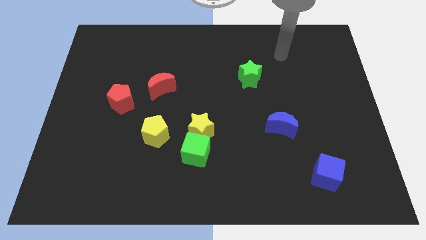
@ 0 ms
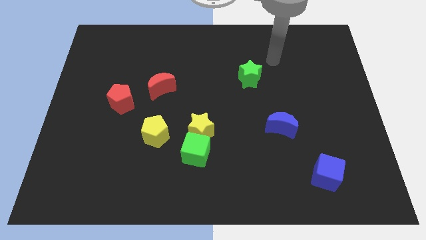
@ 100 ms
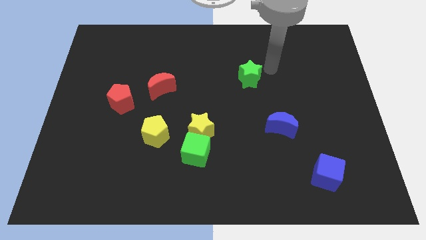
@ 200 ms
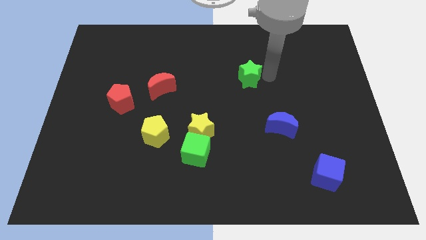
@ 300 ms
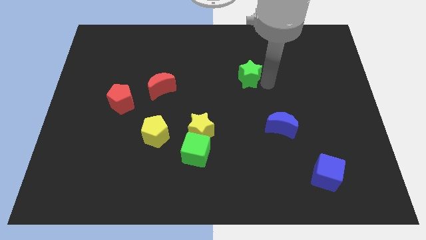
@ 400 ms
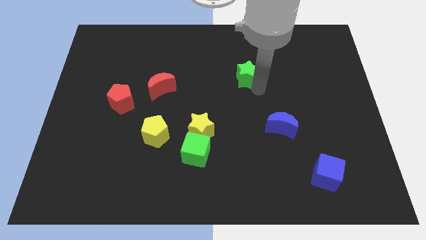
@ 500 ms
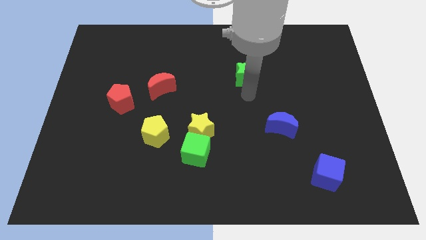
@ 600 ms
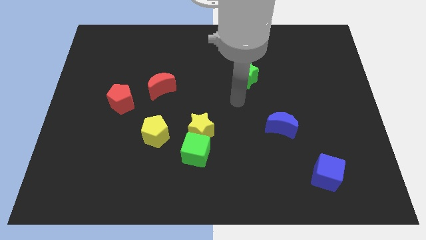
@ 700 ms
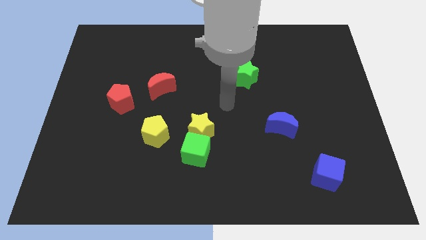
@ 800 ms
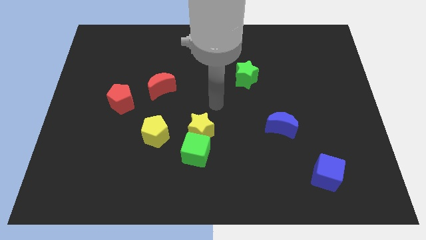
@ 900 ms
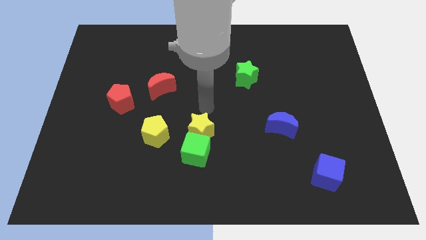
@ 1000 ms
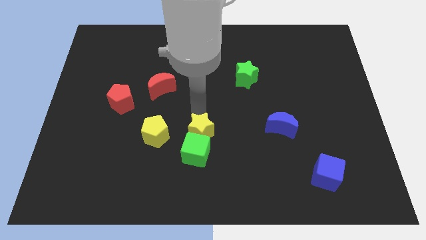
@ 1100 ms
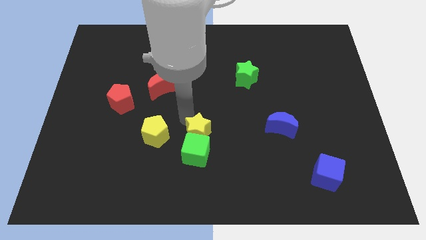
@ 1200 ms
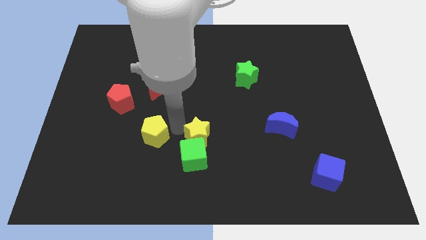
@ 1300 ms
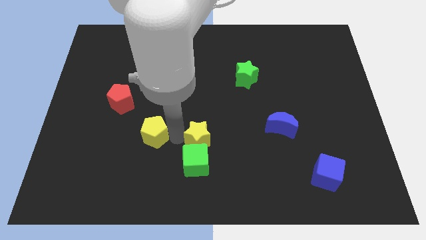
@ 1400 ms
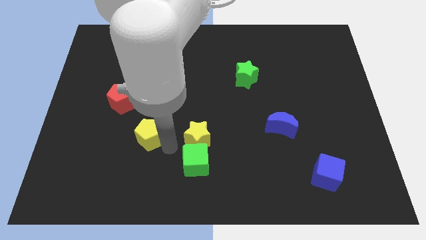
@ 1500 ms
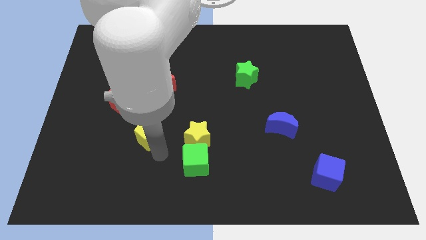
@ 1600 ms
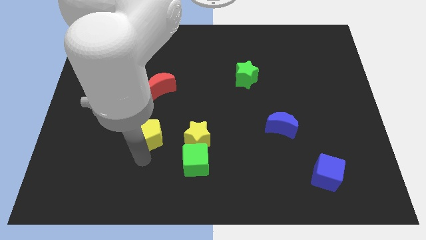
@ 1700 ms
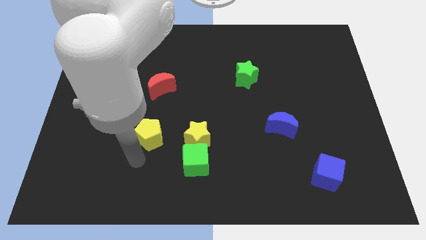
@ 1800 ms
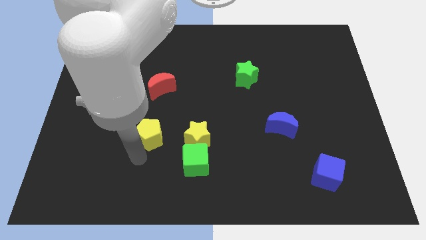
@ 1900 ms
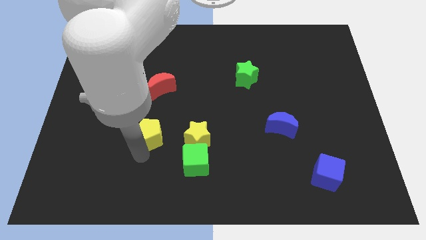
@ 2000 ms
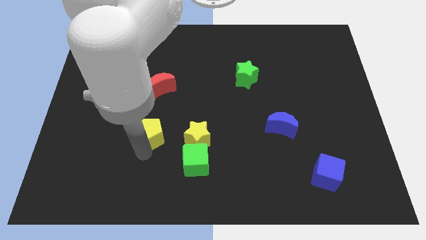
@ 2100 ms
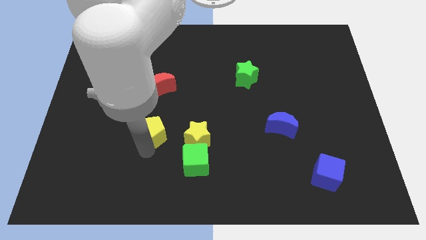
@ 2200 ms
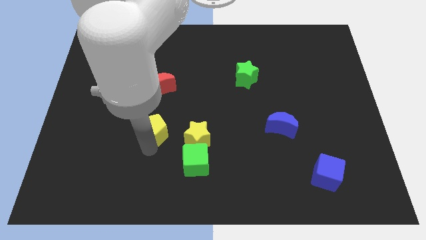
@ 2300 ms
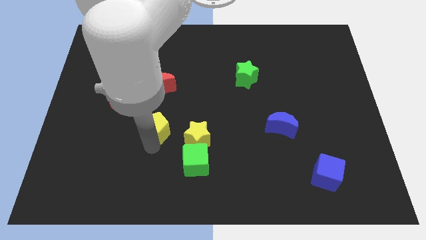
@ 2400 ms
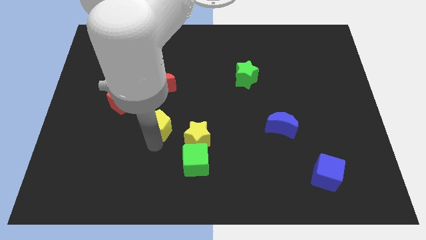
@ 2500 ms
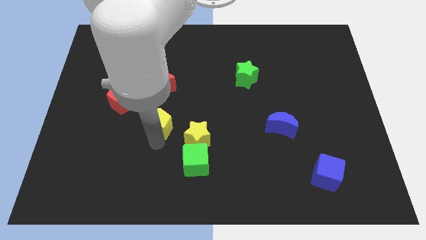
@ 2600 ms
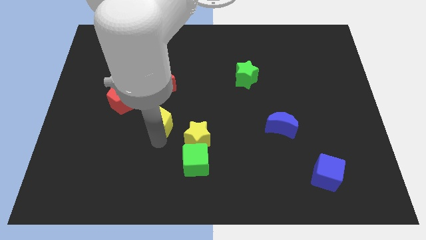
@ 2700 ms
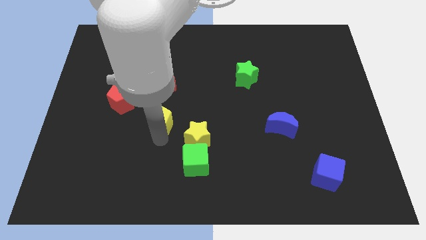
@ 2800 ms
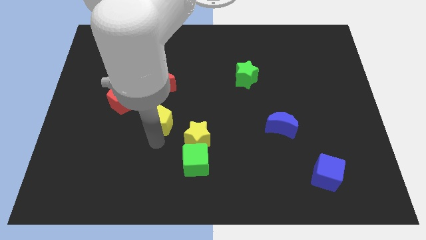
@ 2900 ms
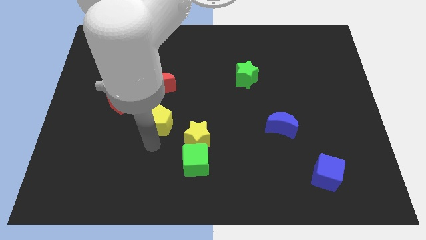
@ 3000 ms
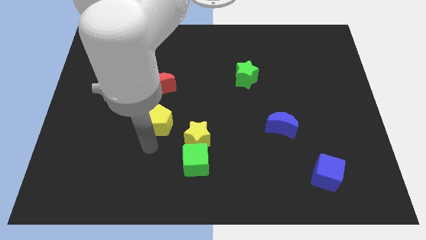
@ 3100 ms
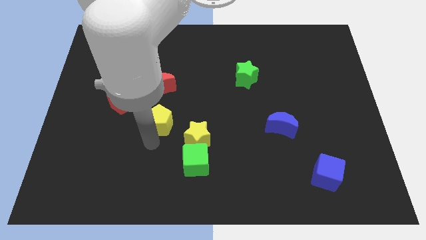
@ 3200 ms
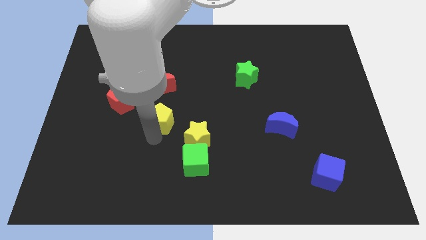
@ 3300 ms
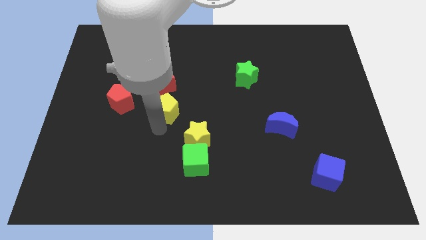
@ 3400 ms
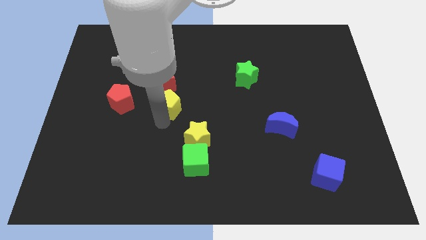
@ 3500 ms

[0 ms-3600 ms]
move the yellow pentagon a little bit up

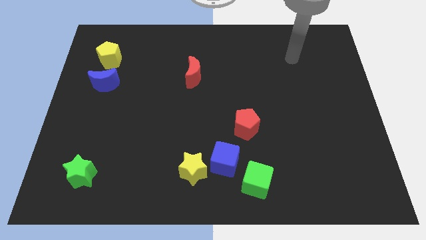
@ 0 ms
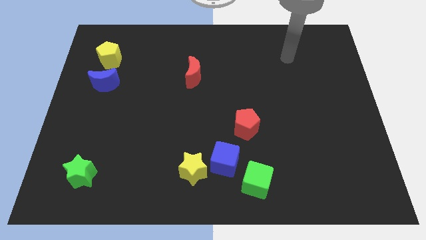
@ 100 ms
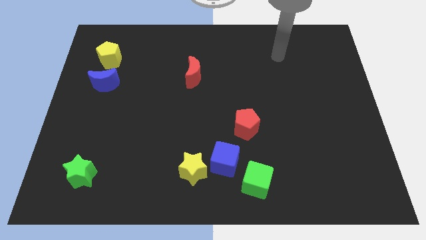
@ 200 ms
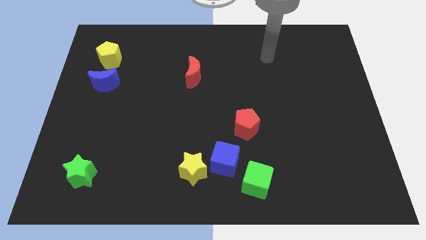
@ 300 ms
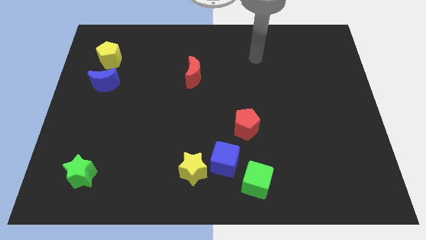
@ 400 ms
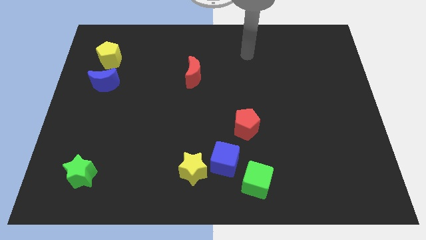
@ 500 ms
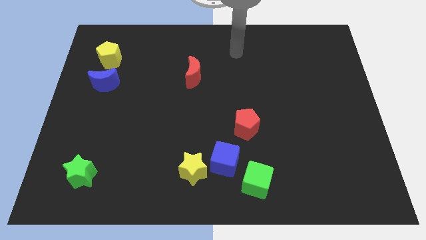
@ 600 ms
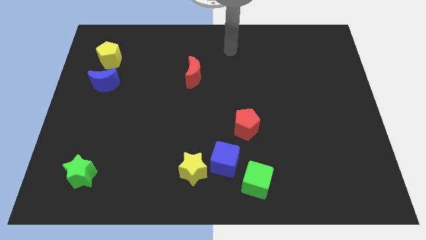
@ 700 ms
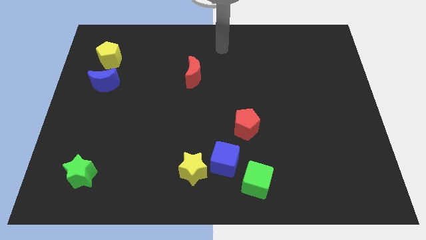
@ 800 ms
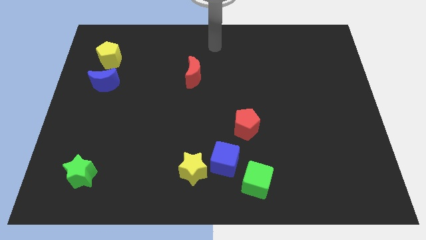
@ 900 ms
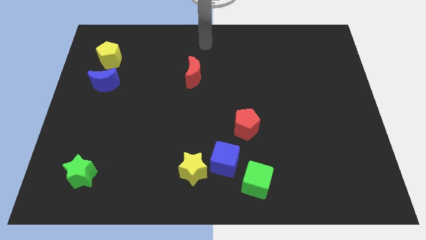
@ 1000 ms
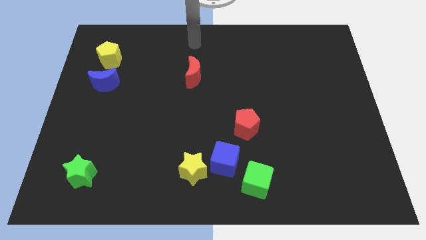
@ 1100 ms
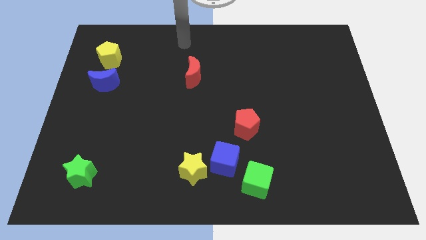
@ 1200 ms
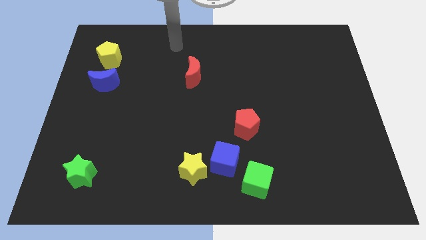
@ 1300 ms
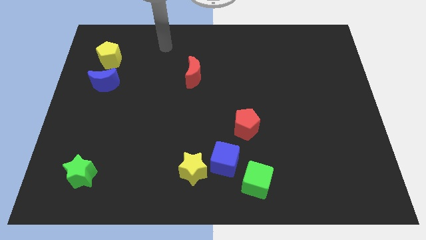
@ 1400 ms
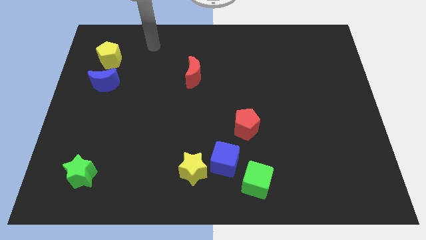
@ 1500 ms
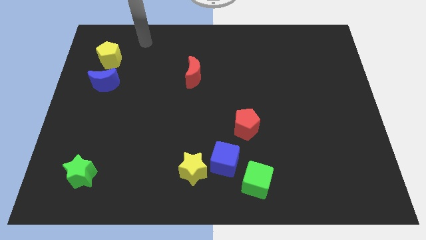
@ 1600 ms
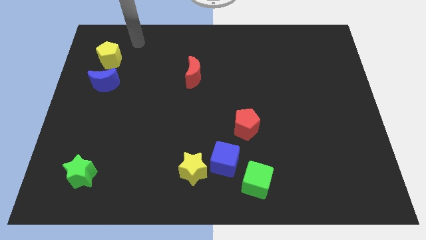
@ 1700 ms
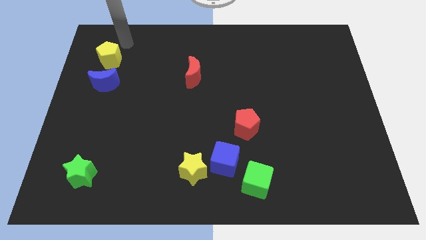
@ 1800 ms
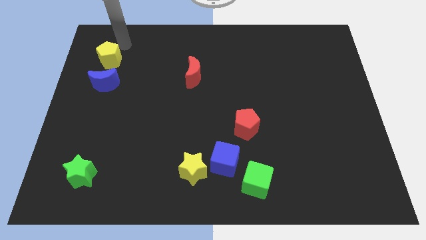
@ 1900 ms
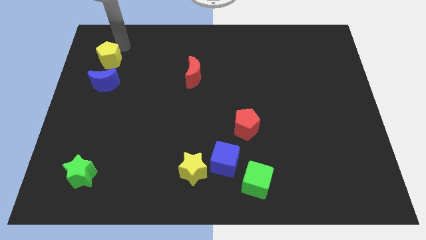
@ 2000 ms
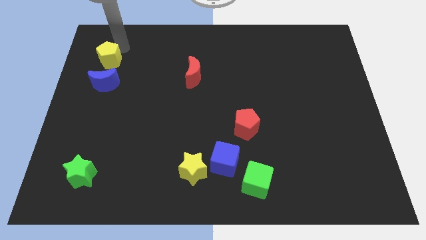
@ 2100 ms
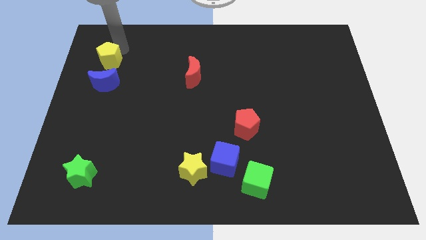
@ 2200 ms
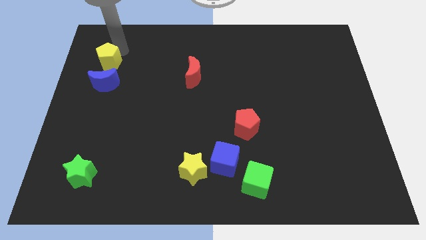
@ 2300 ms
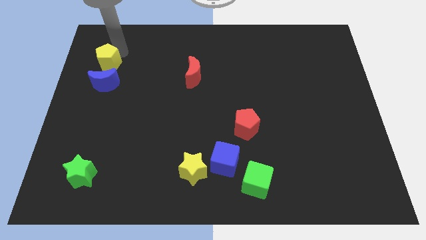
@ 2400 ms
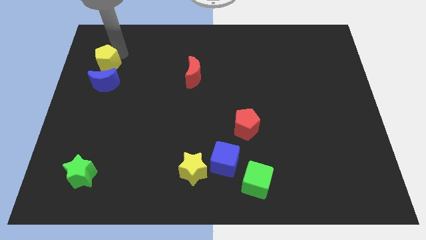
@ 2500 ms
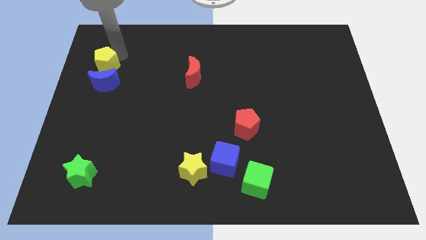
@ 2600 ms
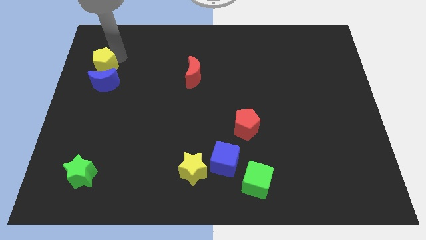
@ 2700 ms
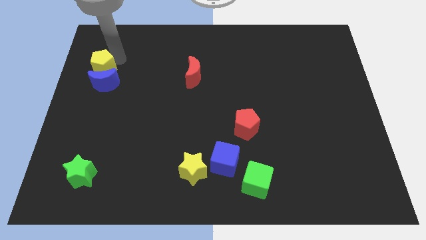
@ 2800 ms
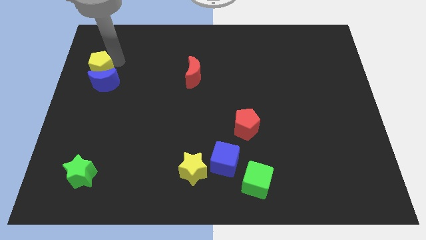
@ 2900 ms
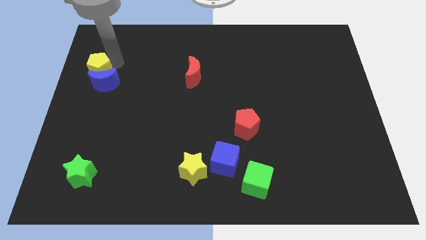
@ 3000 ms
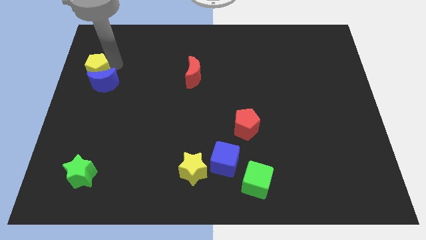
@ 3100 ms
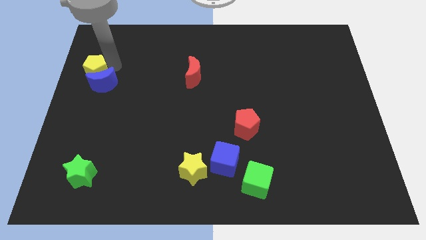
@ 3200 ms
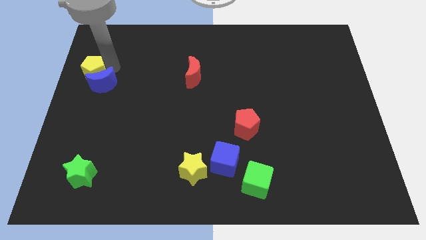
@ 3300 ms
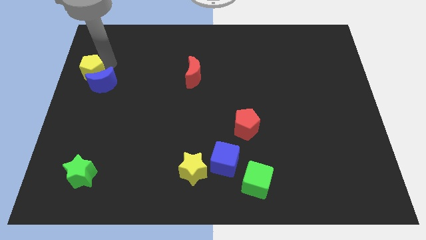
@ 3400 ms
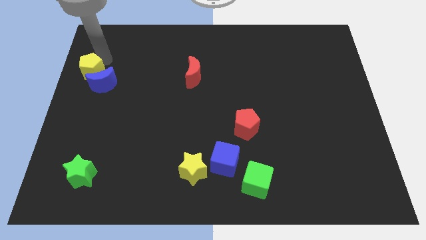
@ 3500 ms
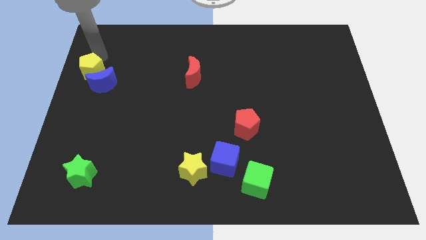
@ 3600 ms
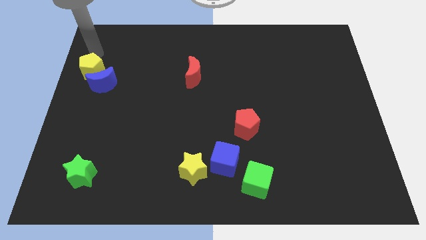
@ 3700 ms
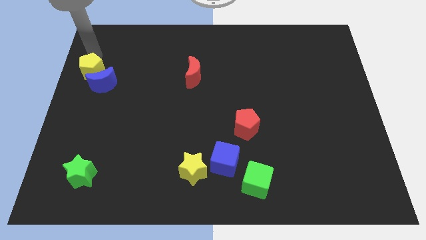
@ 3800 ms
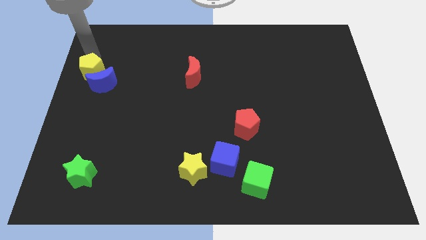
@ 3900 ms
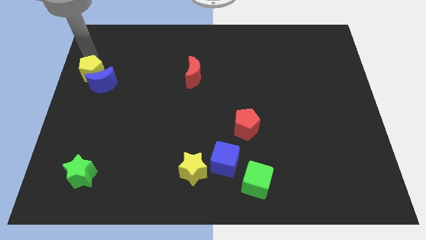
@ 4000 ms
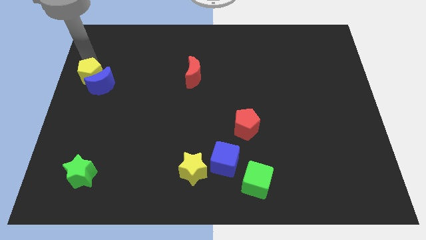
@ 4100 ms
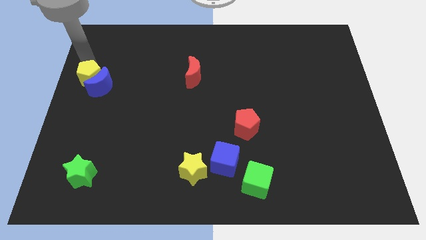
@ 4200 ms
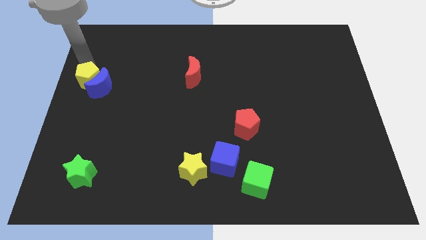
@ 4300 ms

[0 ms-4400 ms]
slightly move the yellow pentagon downwards
